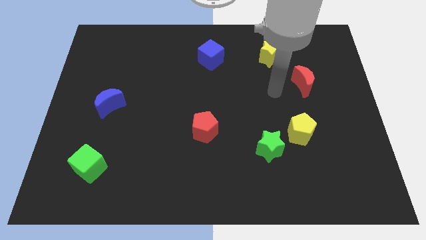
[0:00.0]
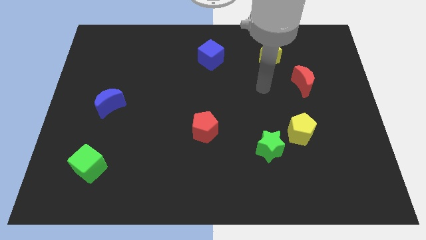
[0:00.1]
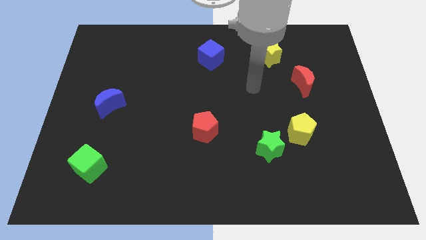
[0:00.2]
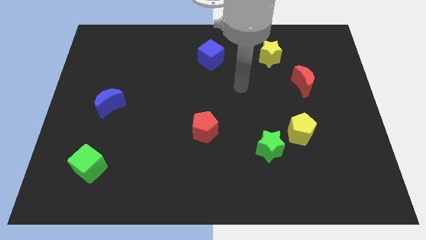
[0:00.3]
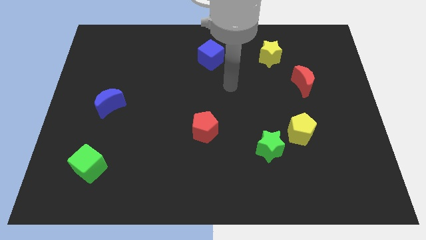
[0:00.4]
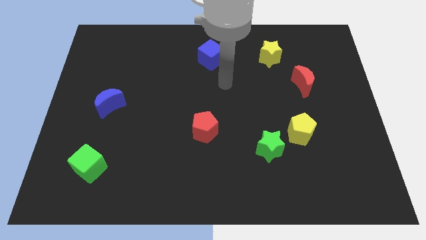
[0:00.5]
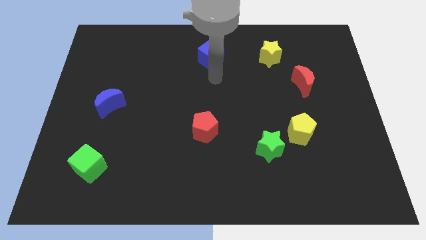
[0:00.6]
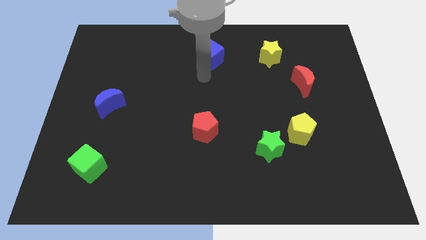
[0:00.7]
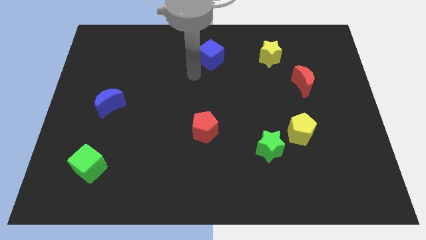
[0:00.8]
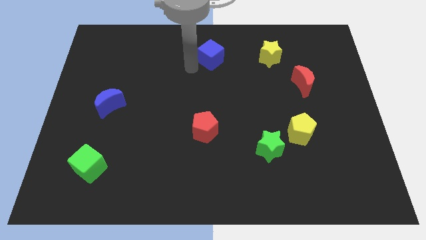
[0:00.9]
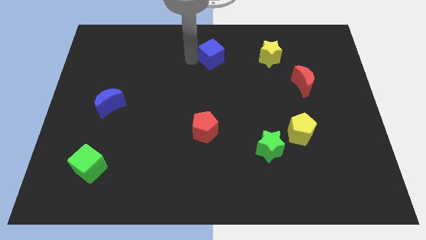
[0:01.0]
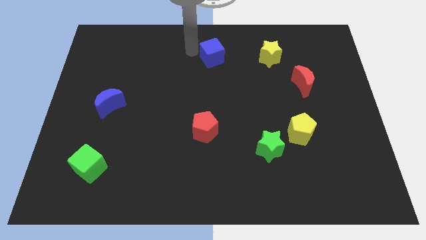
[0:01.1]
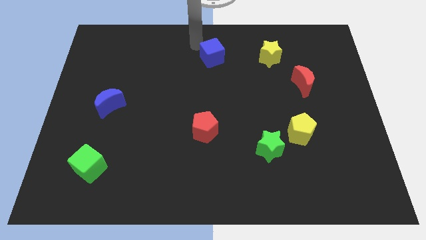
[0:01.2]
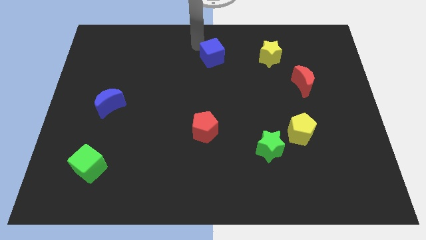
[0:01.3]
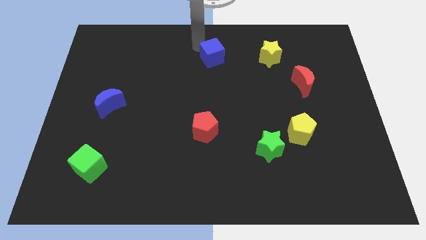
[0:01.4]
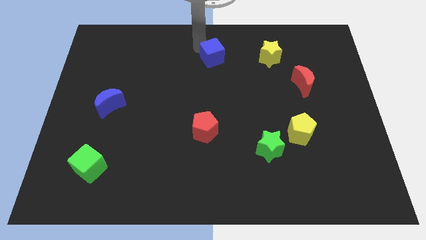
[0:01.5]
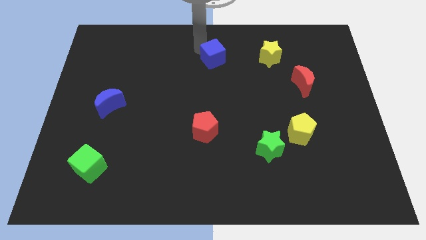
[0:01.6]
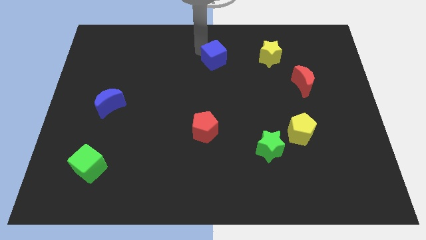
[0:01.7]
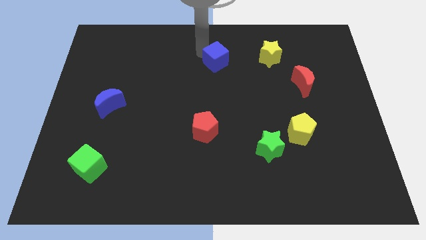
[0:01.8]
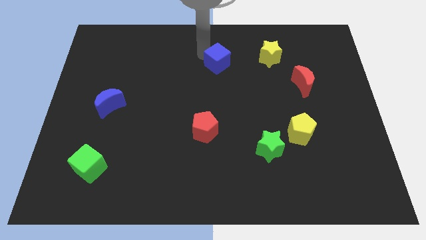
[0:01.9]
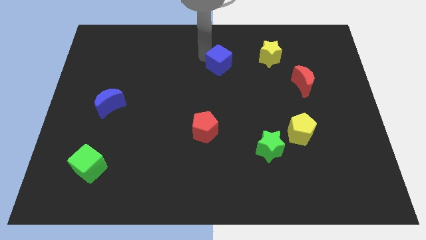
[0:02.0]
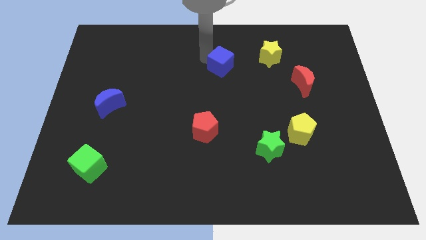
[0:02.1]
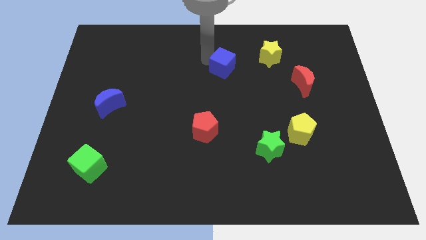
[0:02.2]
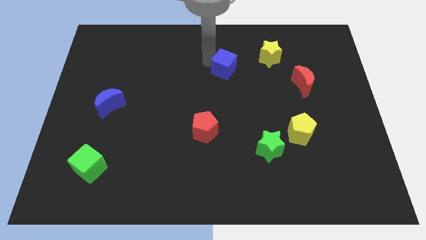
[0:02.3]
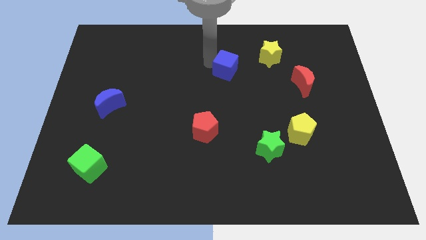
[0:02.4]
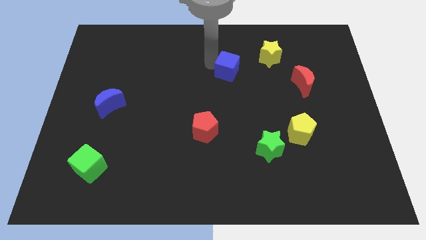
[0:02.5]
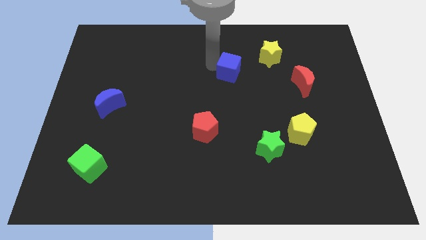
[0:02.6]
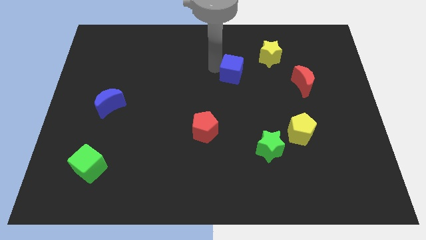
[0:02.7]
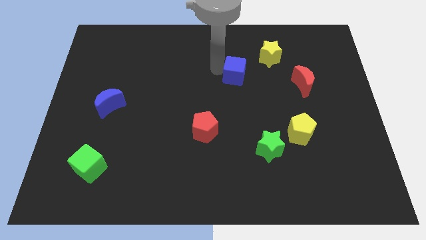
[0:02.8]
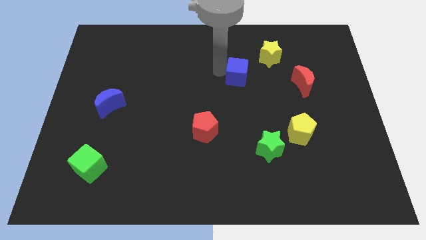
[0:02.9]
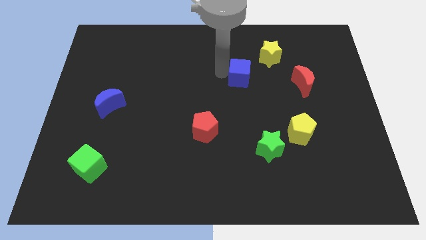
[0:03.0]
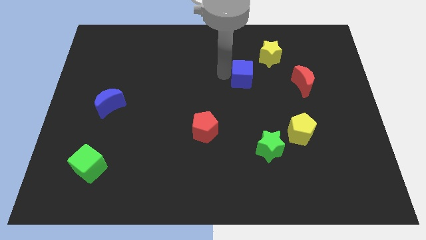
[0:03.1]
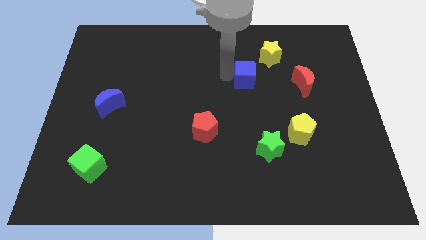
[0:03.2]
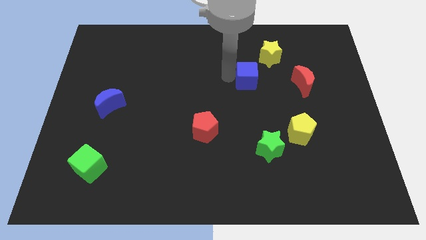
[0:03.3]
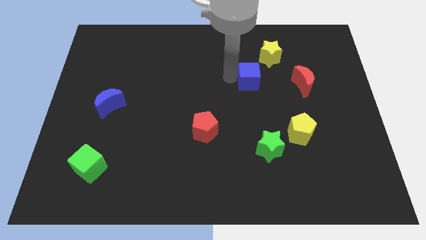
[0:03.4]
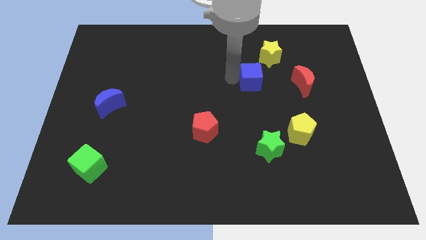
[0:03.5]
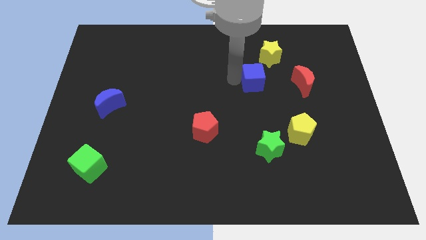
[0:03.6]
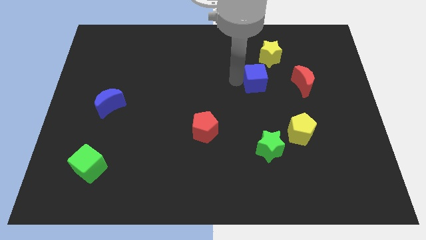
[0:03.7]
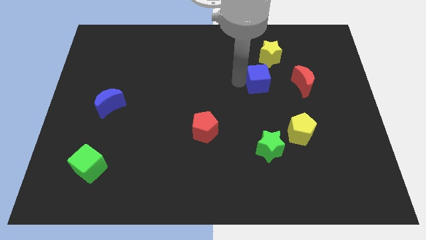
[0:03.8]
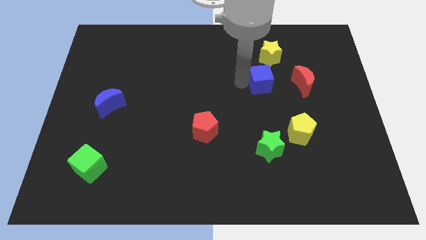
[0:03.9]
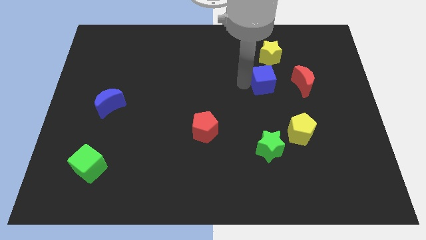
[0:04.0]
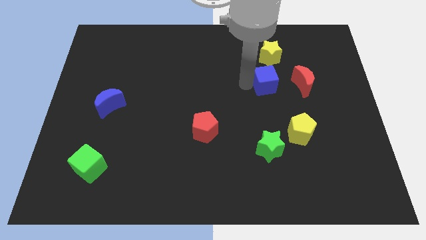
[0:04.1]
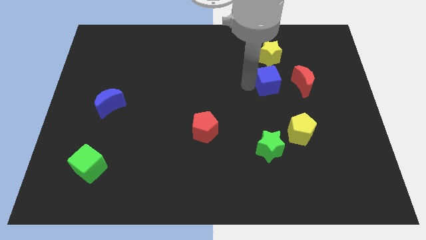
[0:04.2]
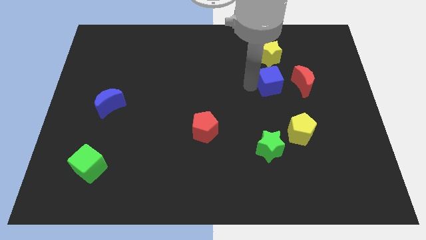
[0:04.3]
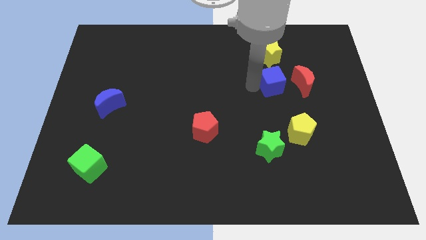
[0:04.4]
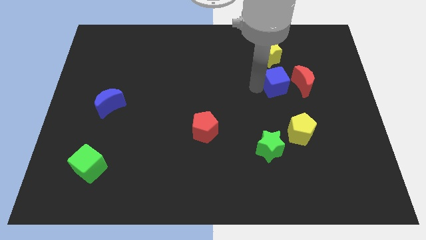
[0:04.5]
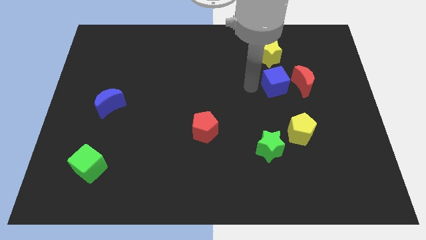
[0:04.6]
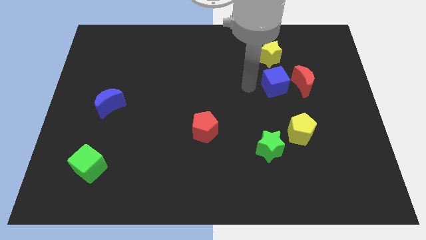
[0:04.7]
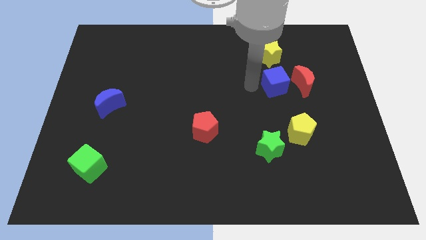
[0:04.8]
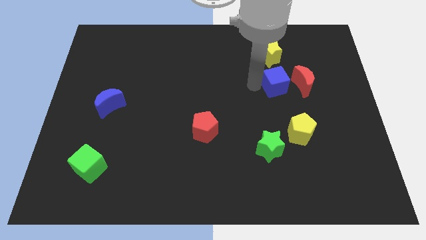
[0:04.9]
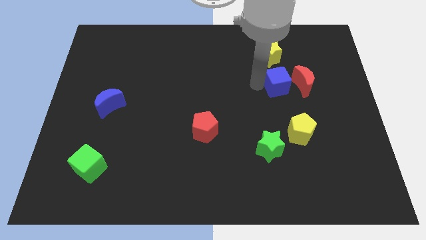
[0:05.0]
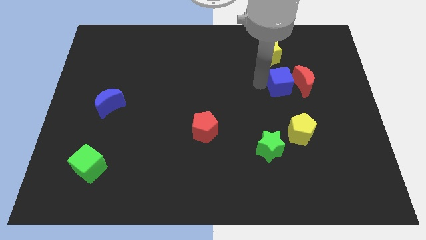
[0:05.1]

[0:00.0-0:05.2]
push the blue cube towards the red moon

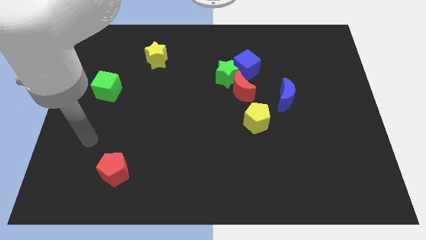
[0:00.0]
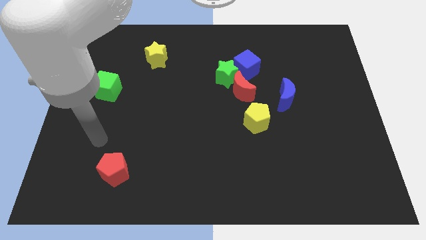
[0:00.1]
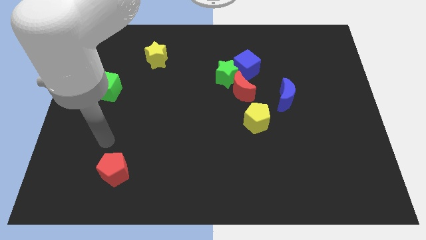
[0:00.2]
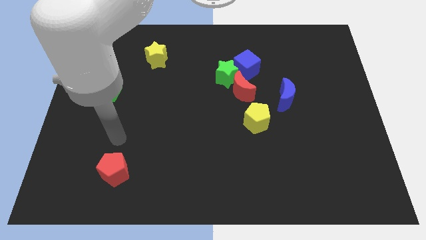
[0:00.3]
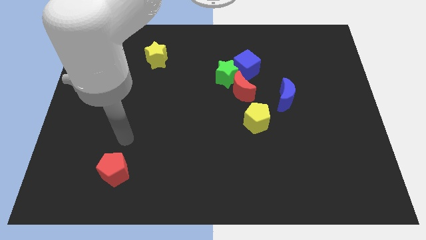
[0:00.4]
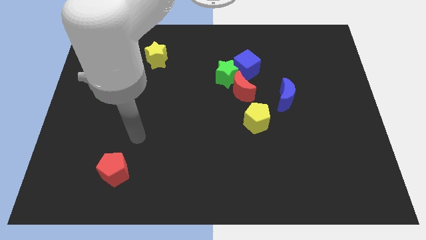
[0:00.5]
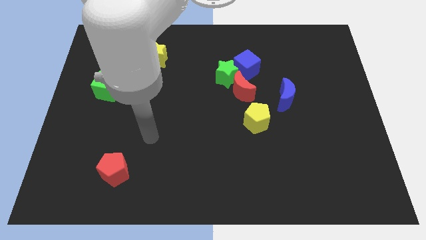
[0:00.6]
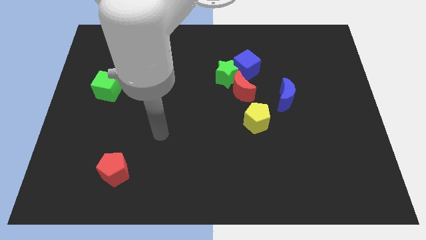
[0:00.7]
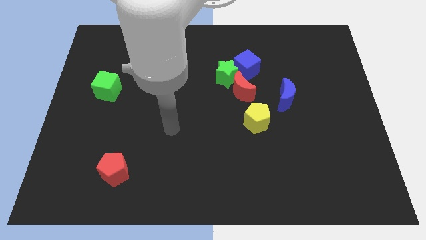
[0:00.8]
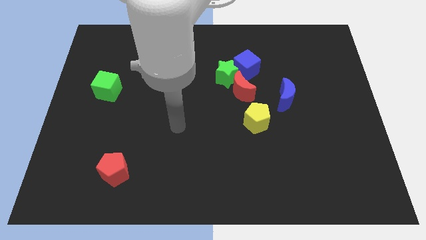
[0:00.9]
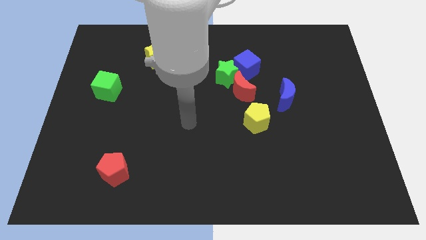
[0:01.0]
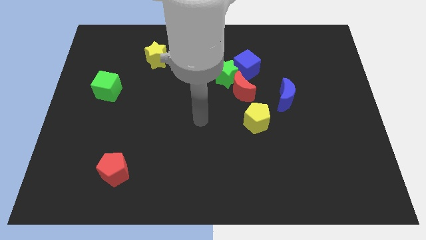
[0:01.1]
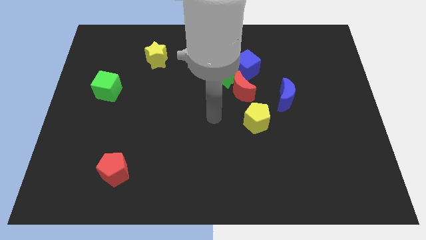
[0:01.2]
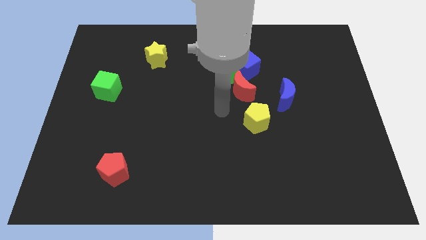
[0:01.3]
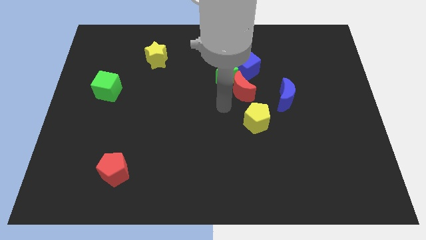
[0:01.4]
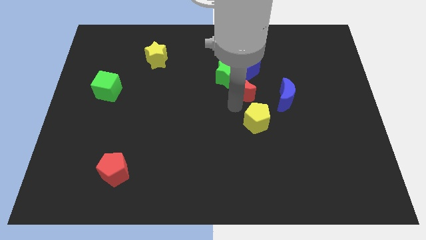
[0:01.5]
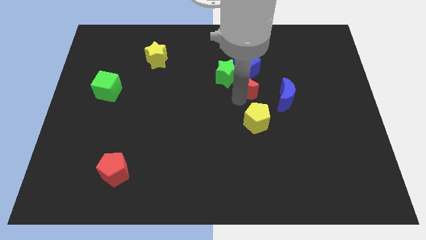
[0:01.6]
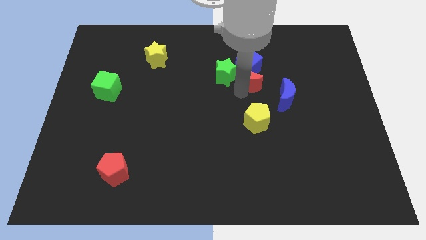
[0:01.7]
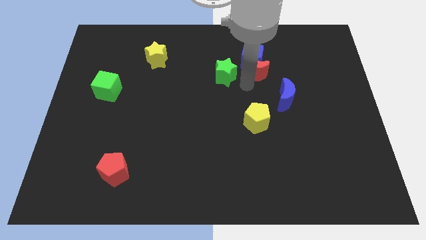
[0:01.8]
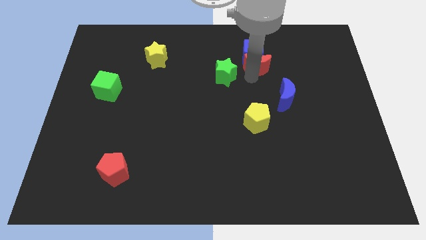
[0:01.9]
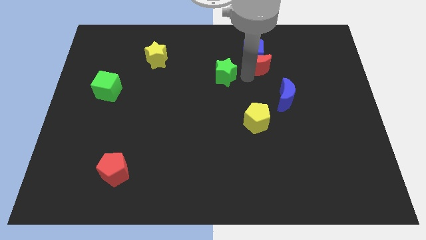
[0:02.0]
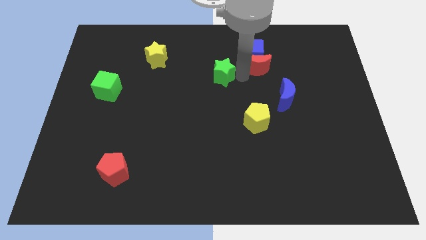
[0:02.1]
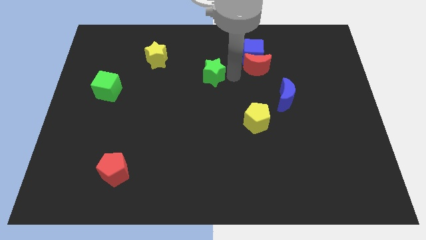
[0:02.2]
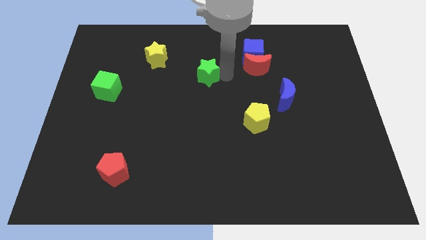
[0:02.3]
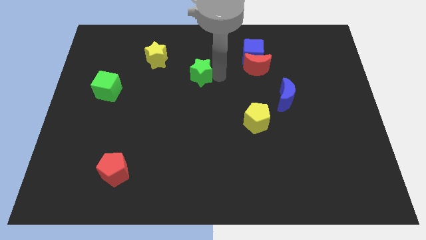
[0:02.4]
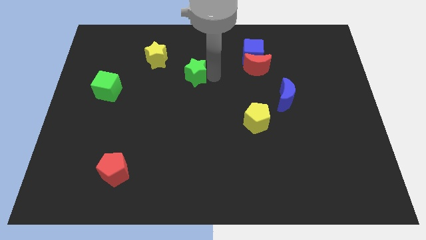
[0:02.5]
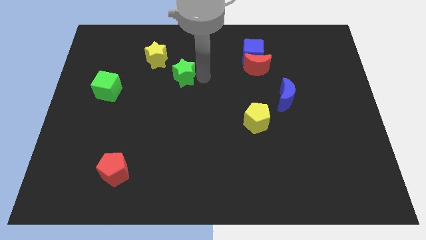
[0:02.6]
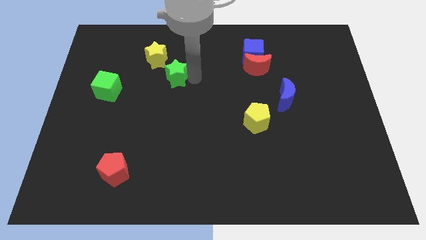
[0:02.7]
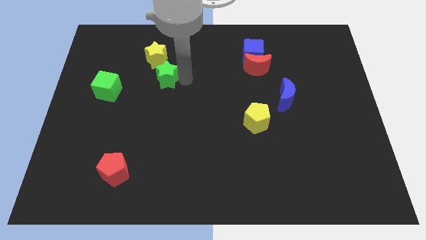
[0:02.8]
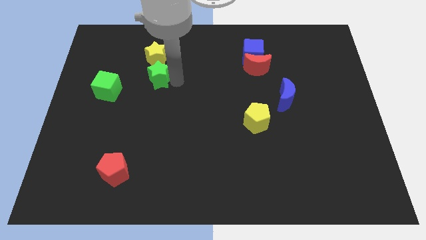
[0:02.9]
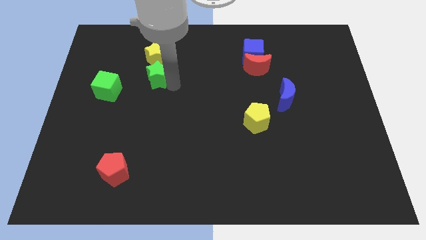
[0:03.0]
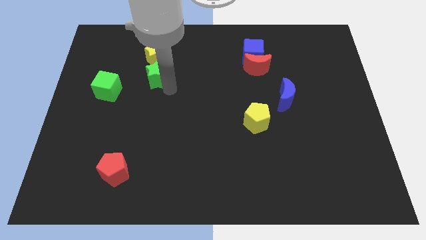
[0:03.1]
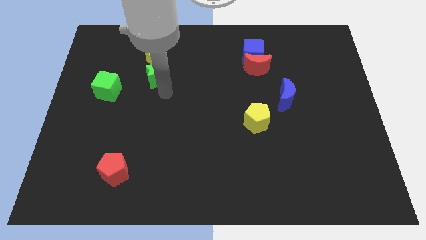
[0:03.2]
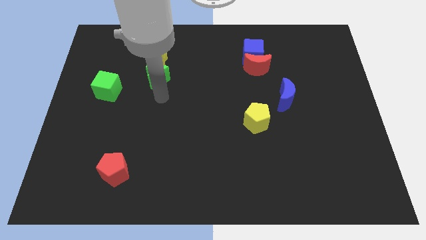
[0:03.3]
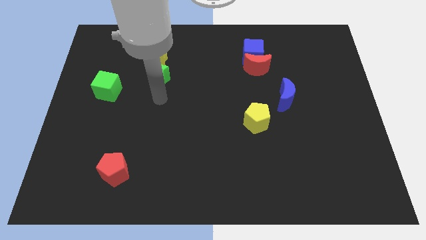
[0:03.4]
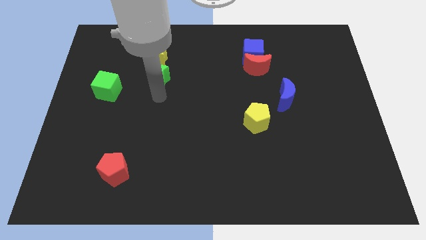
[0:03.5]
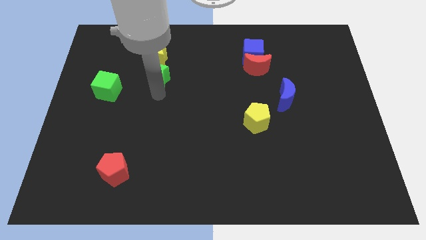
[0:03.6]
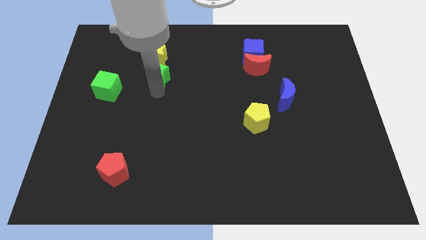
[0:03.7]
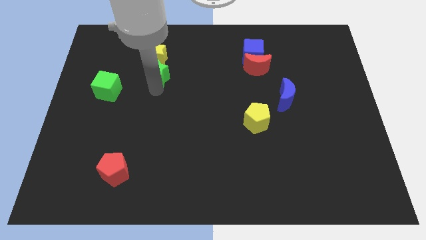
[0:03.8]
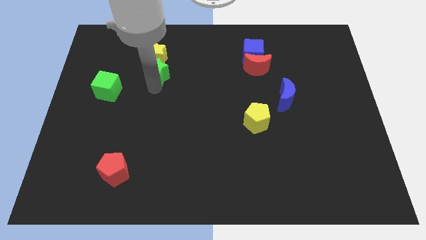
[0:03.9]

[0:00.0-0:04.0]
push the green star to the yellow star
